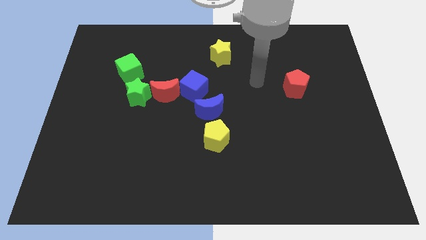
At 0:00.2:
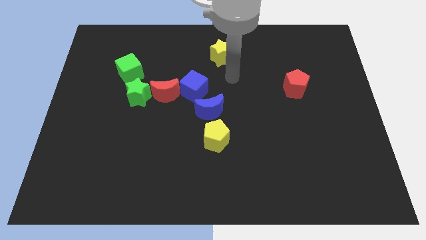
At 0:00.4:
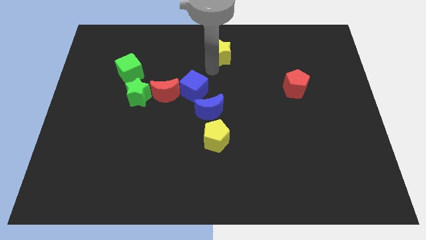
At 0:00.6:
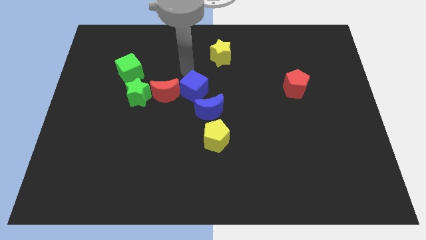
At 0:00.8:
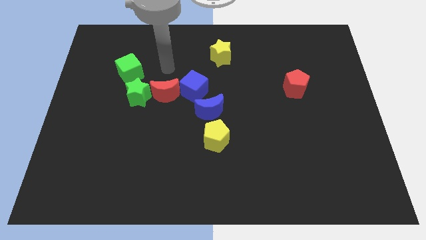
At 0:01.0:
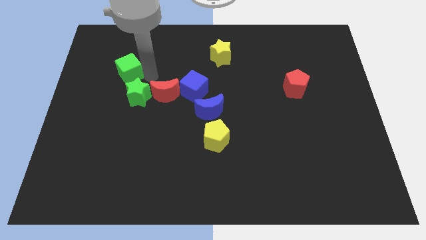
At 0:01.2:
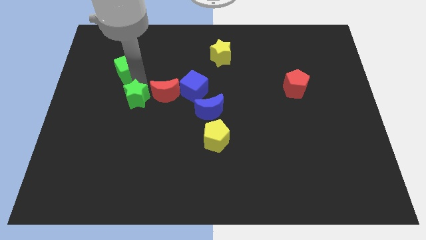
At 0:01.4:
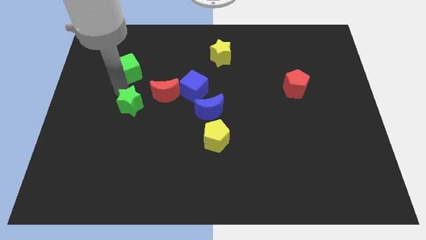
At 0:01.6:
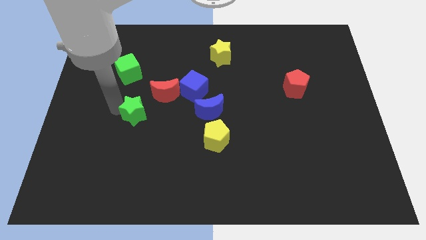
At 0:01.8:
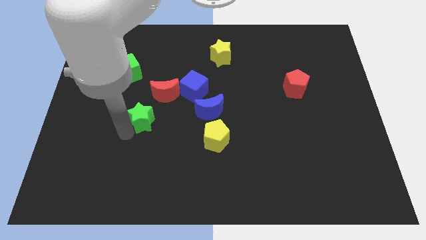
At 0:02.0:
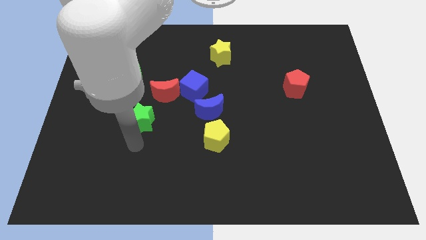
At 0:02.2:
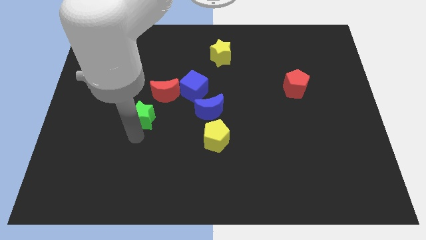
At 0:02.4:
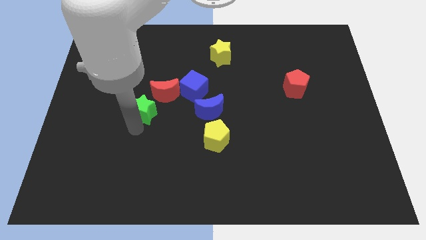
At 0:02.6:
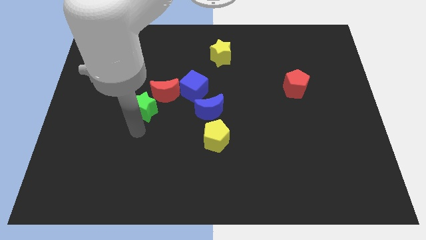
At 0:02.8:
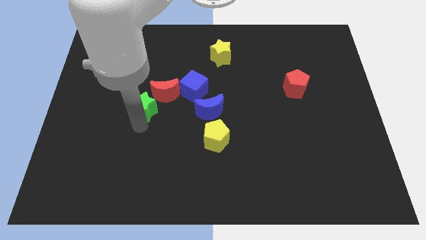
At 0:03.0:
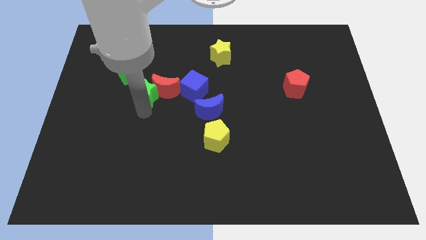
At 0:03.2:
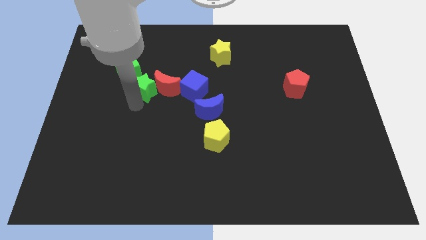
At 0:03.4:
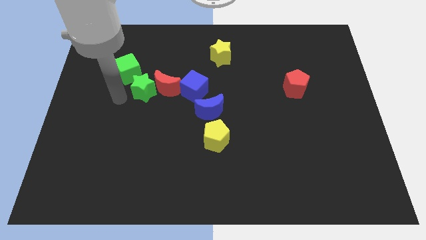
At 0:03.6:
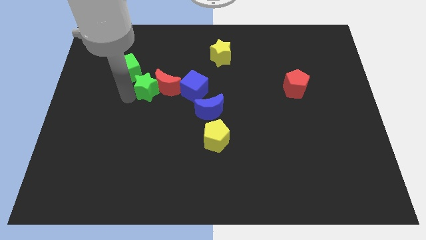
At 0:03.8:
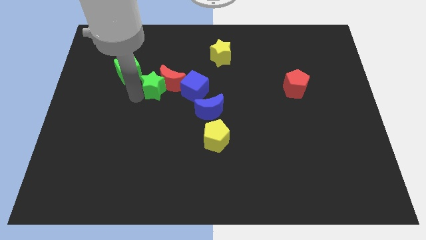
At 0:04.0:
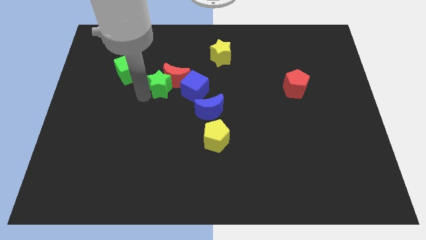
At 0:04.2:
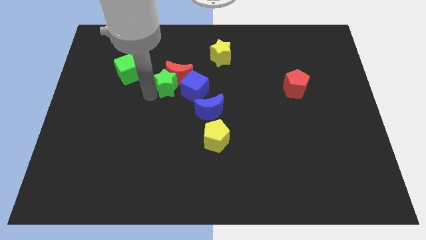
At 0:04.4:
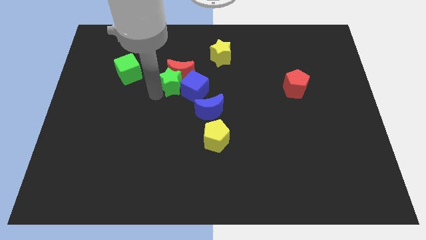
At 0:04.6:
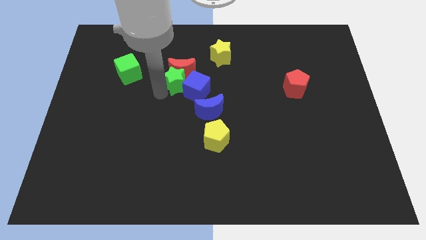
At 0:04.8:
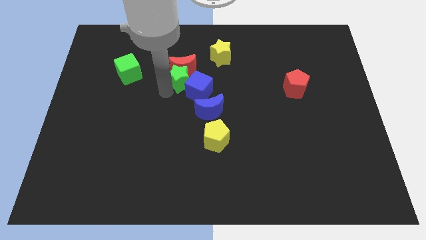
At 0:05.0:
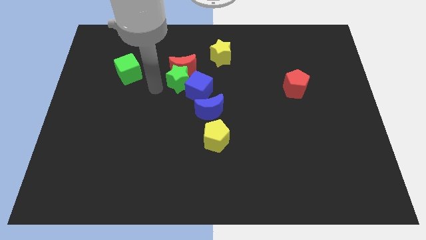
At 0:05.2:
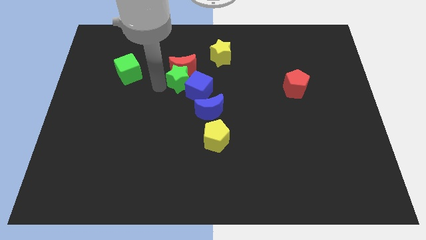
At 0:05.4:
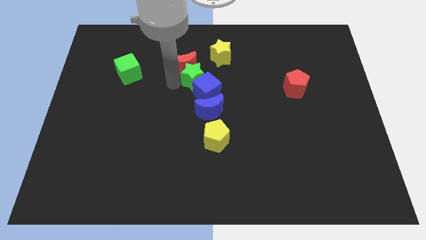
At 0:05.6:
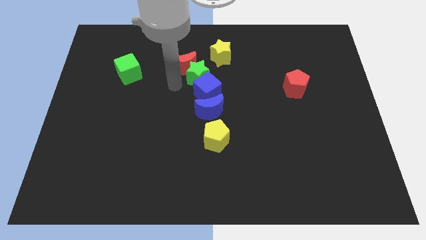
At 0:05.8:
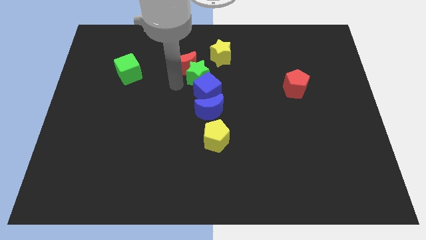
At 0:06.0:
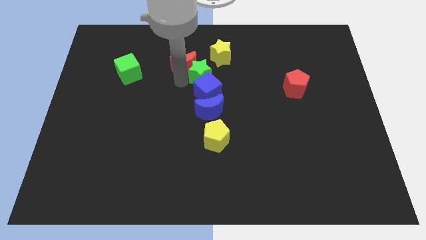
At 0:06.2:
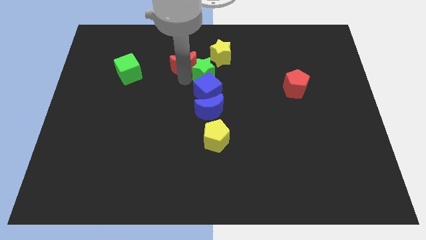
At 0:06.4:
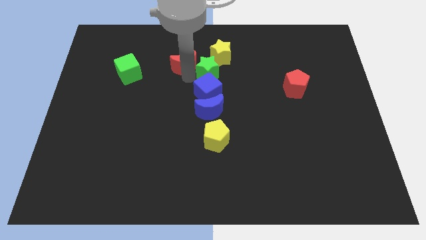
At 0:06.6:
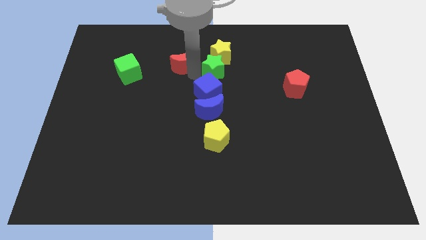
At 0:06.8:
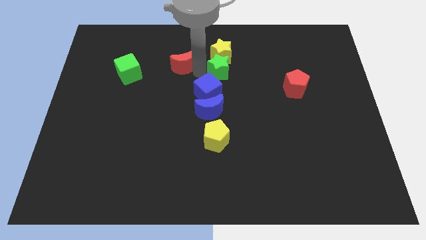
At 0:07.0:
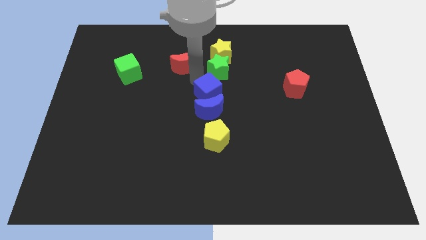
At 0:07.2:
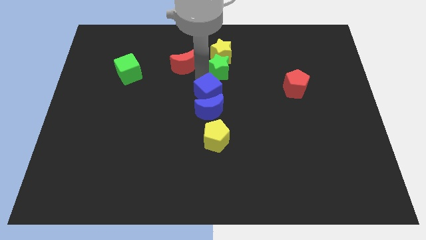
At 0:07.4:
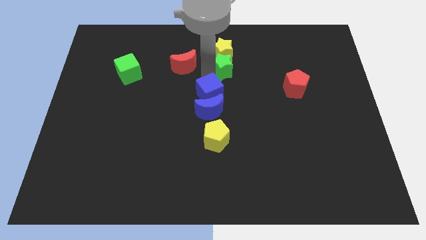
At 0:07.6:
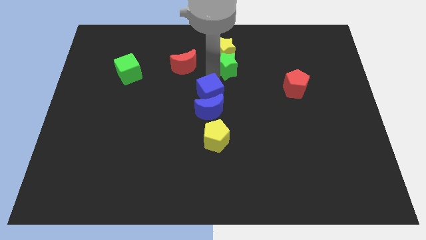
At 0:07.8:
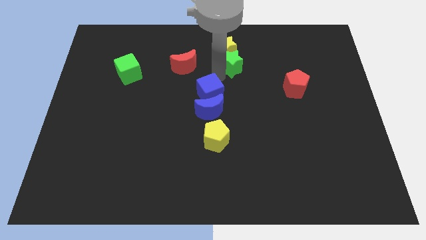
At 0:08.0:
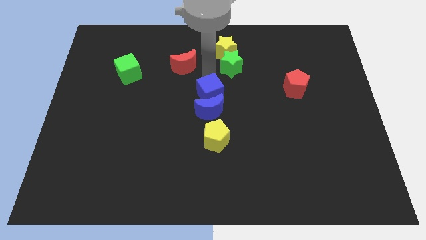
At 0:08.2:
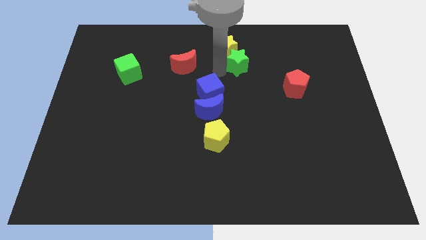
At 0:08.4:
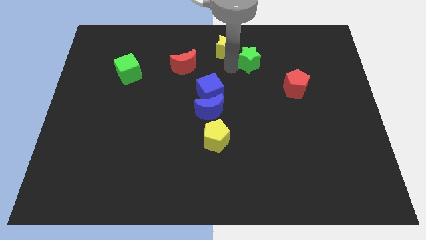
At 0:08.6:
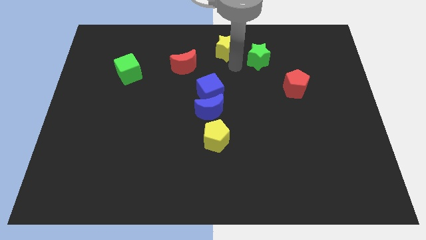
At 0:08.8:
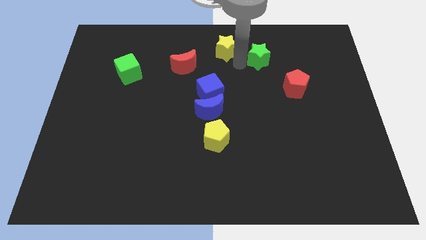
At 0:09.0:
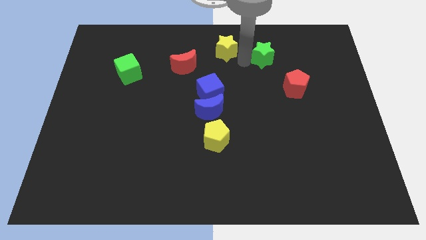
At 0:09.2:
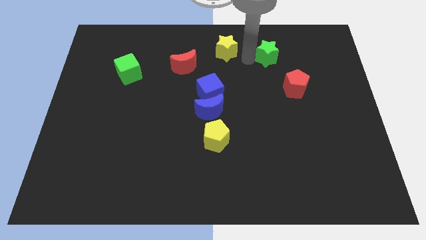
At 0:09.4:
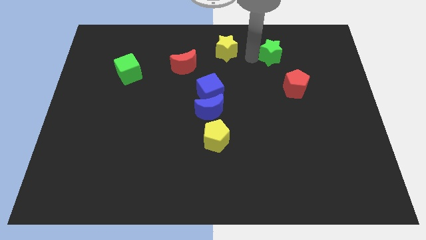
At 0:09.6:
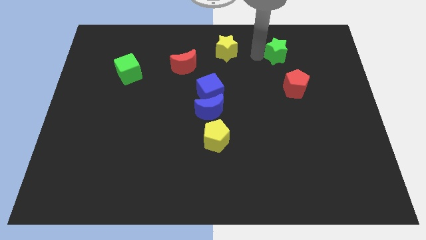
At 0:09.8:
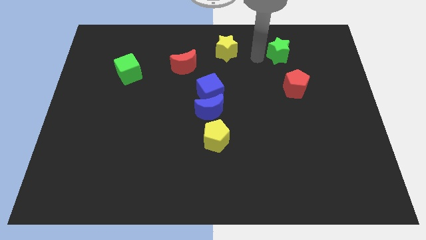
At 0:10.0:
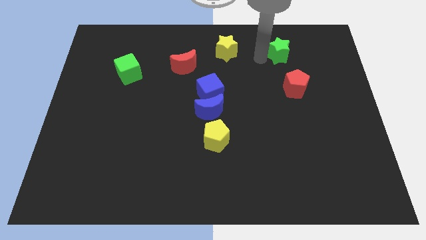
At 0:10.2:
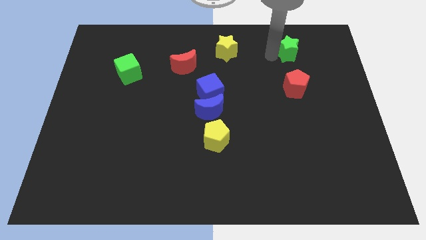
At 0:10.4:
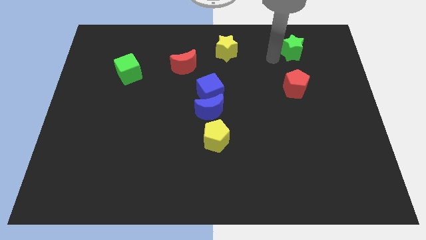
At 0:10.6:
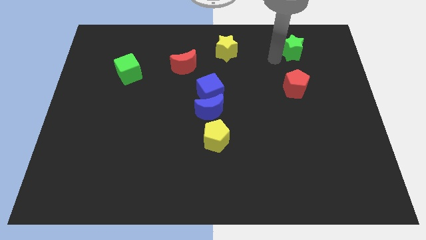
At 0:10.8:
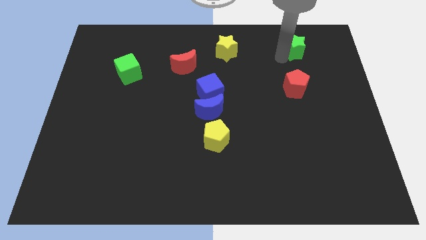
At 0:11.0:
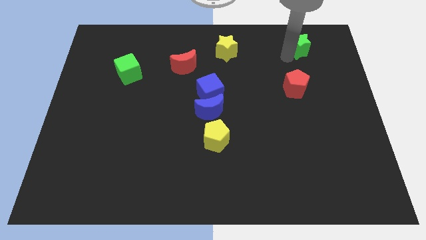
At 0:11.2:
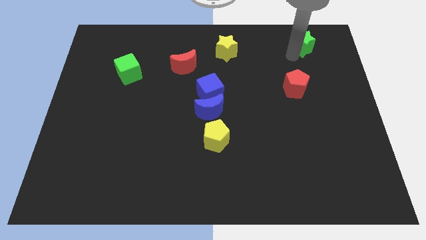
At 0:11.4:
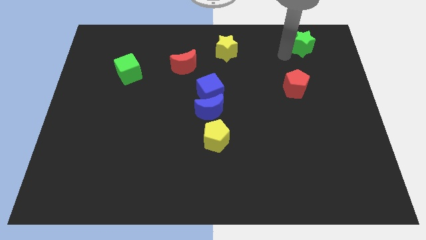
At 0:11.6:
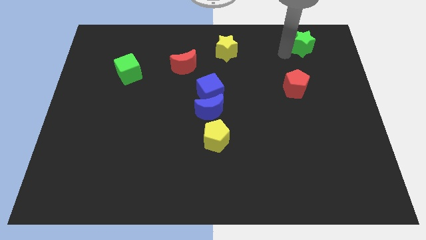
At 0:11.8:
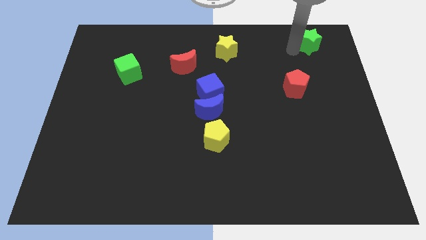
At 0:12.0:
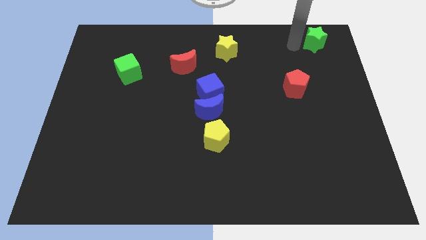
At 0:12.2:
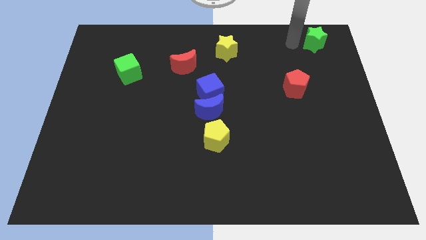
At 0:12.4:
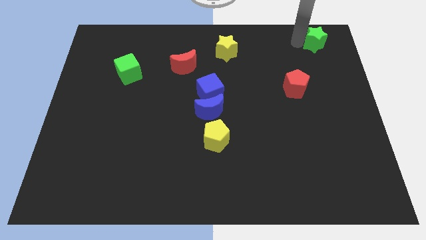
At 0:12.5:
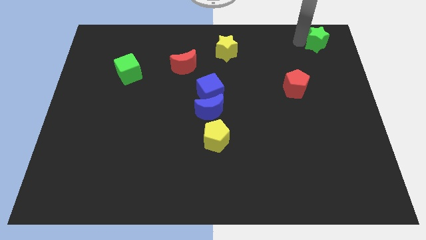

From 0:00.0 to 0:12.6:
slide the green star to the top right corner

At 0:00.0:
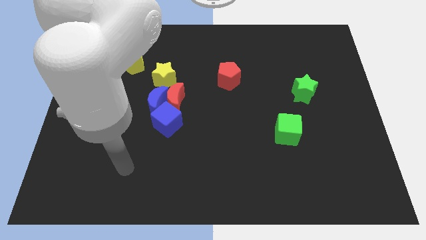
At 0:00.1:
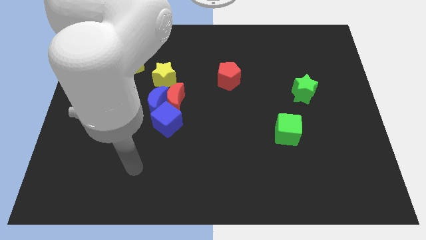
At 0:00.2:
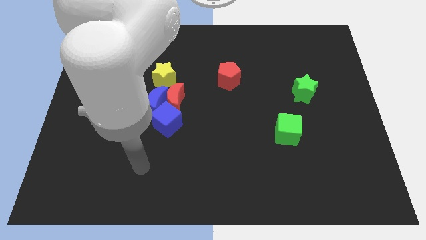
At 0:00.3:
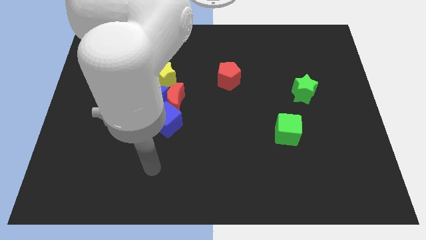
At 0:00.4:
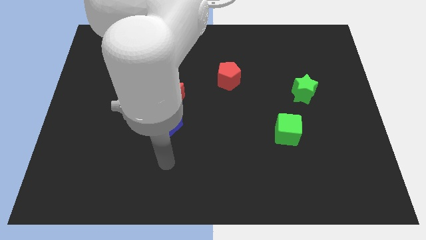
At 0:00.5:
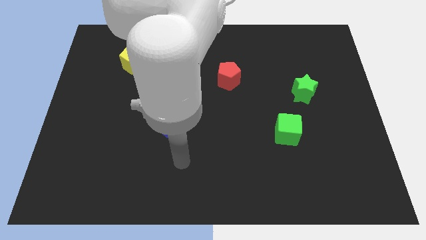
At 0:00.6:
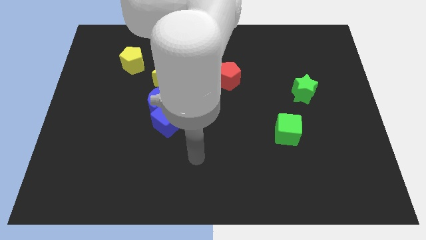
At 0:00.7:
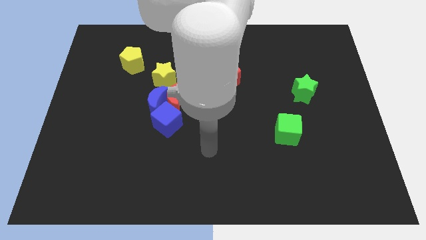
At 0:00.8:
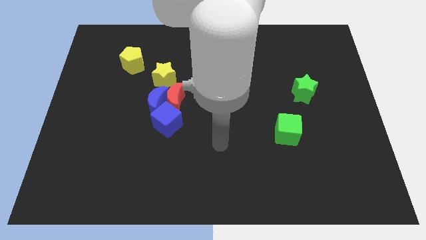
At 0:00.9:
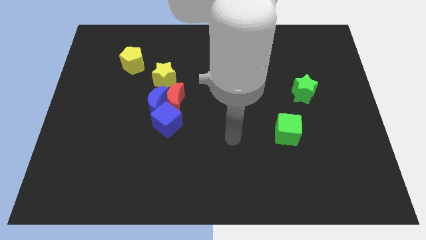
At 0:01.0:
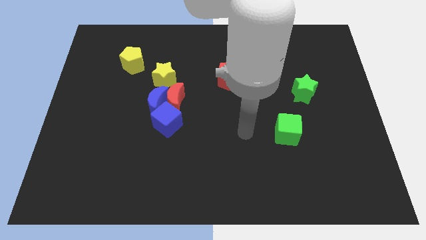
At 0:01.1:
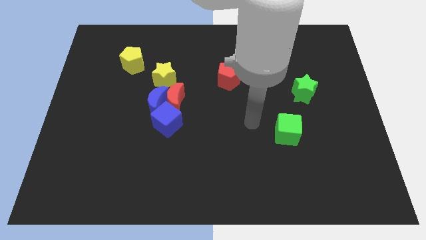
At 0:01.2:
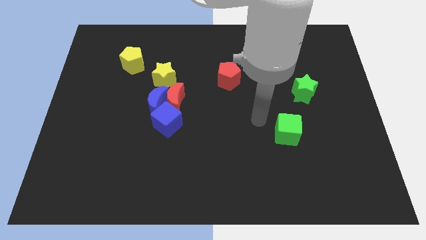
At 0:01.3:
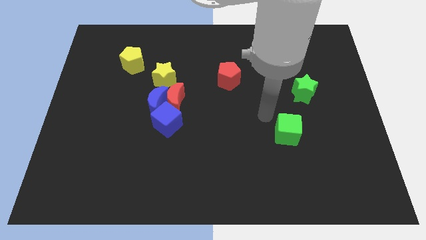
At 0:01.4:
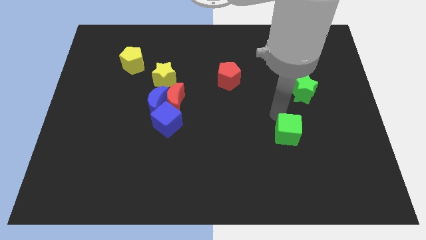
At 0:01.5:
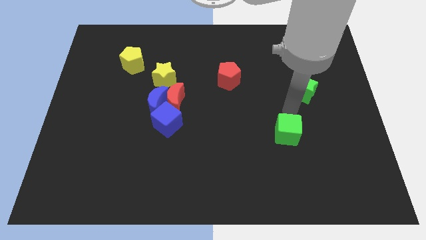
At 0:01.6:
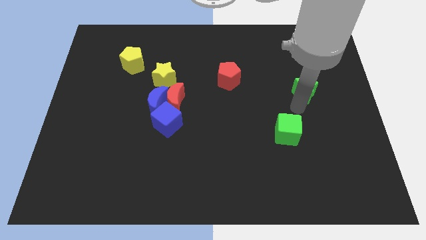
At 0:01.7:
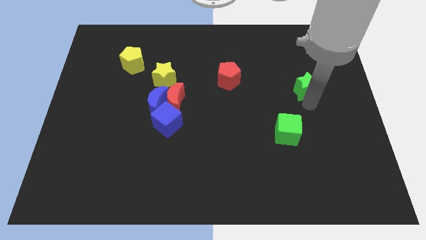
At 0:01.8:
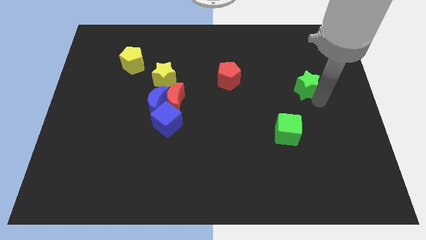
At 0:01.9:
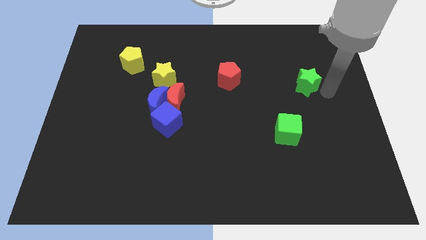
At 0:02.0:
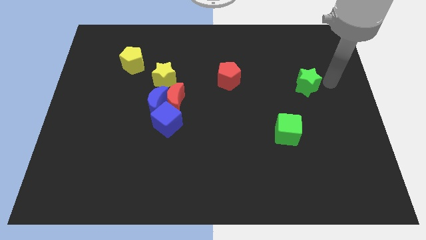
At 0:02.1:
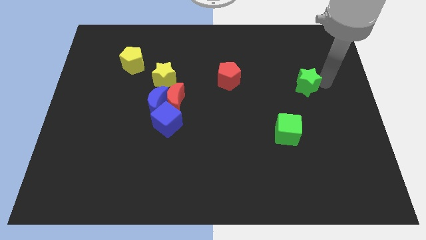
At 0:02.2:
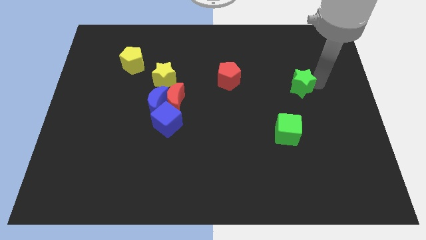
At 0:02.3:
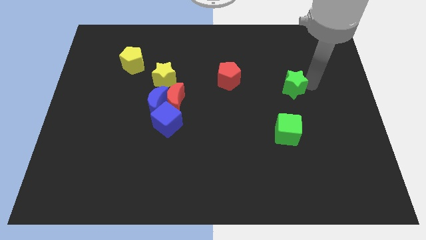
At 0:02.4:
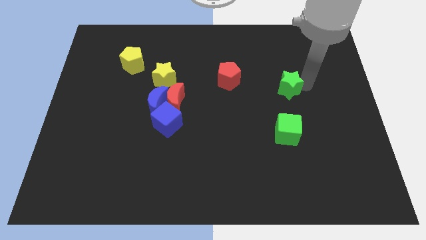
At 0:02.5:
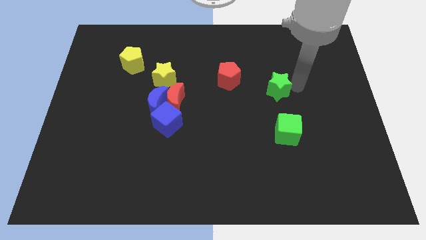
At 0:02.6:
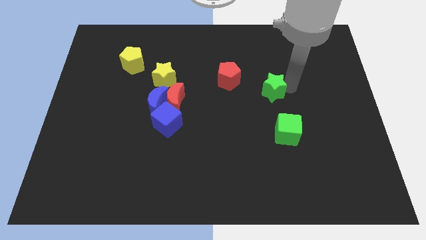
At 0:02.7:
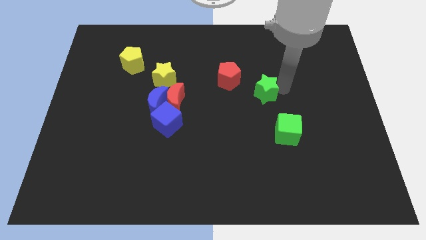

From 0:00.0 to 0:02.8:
push the green star to the center
